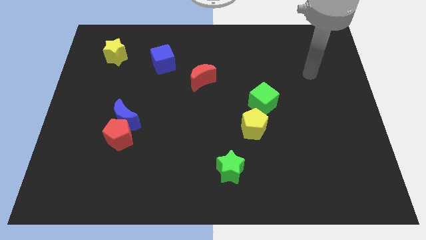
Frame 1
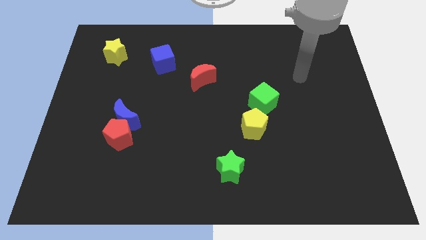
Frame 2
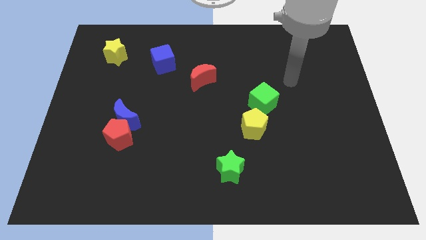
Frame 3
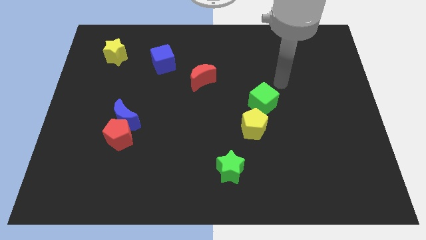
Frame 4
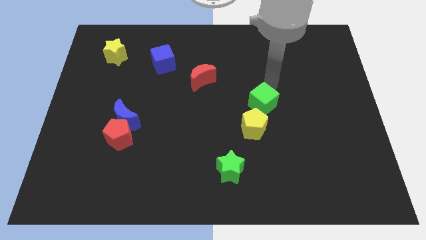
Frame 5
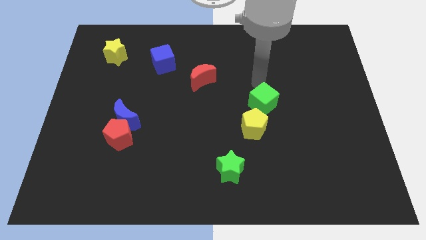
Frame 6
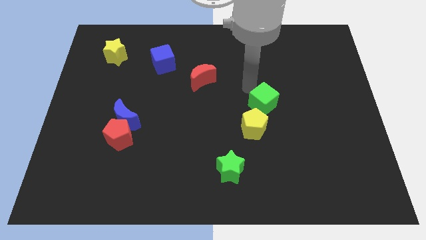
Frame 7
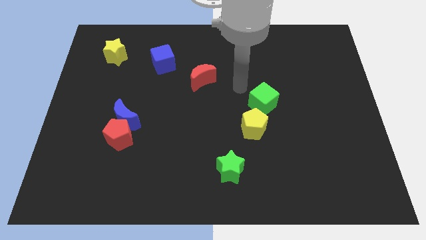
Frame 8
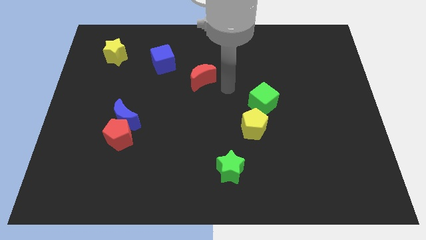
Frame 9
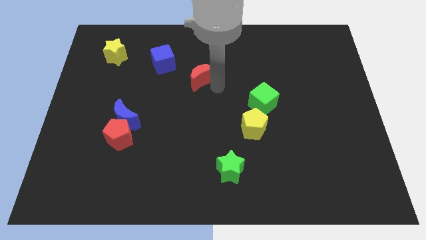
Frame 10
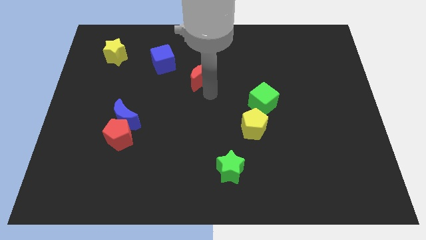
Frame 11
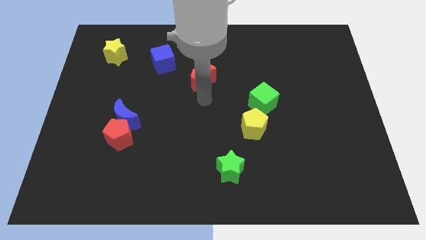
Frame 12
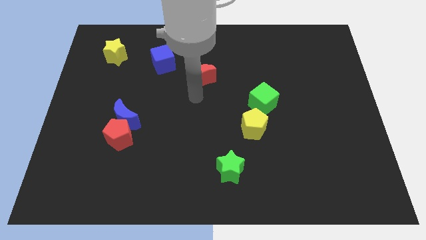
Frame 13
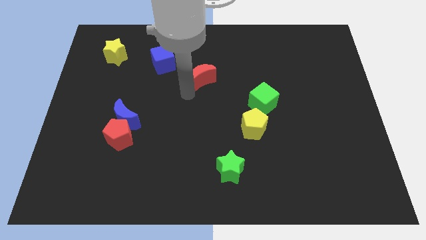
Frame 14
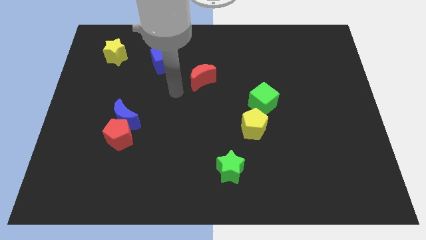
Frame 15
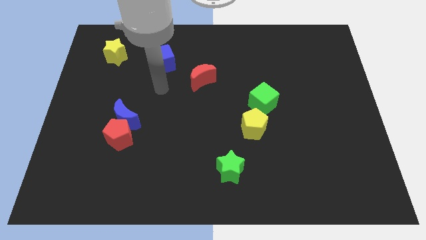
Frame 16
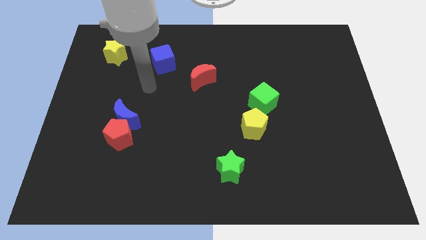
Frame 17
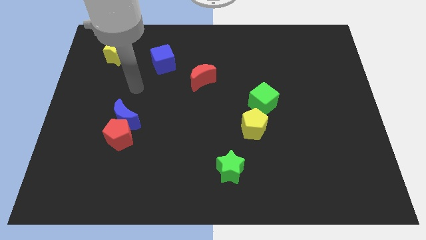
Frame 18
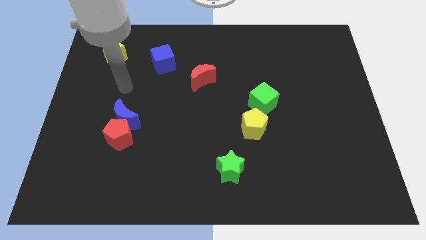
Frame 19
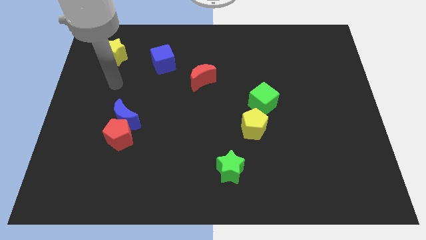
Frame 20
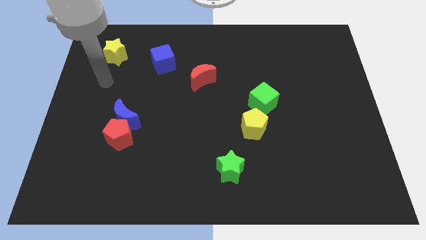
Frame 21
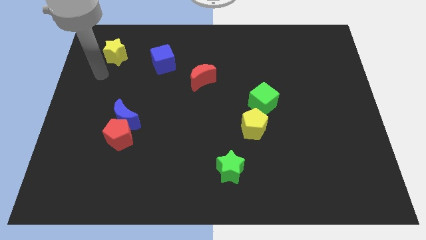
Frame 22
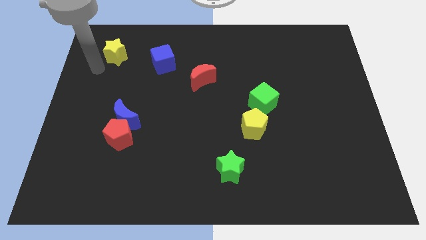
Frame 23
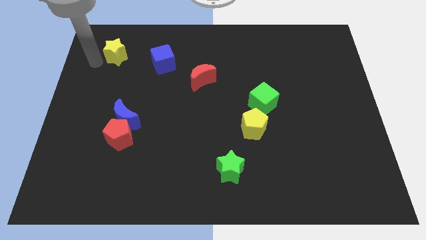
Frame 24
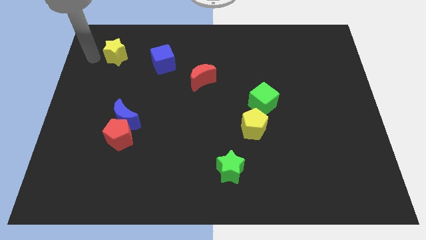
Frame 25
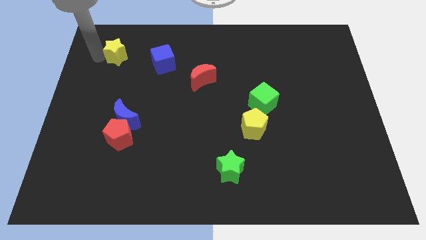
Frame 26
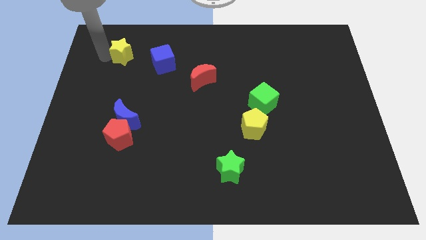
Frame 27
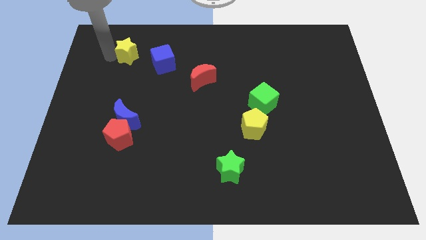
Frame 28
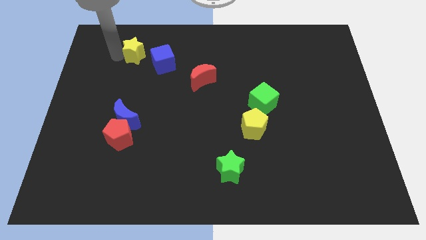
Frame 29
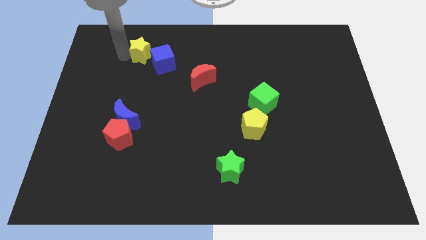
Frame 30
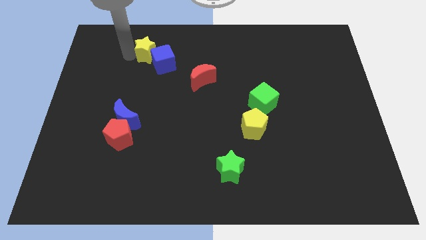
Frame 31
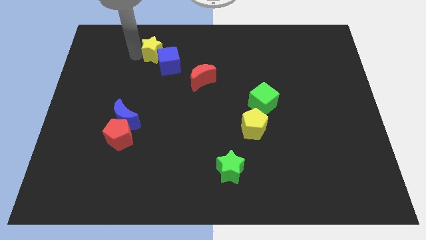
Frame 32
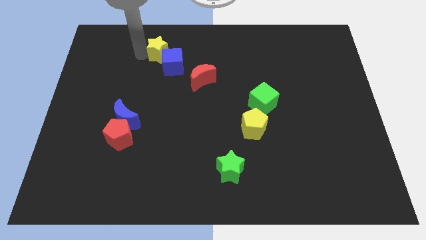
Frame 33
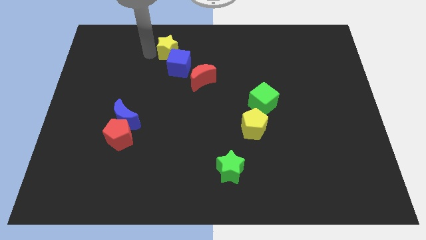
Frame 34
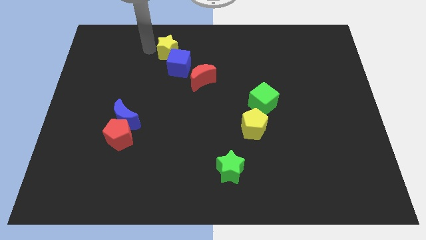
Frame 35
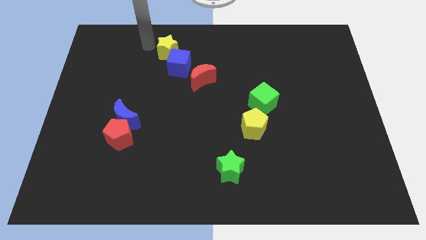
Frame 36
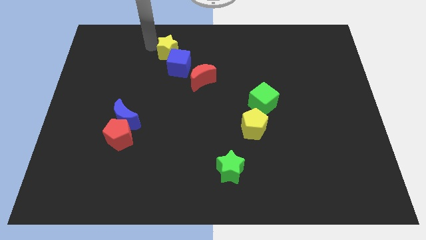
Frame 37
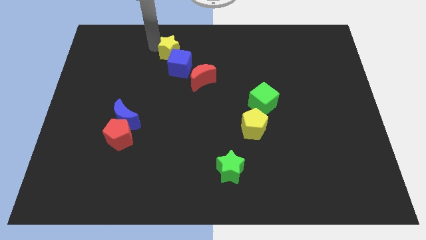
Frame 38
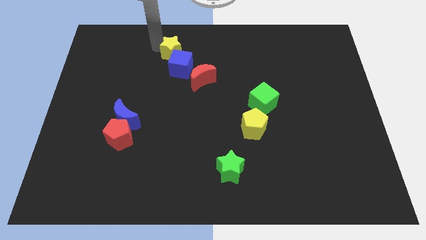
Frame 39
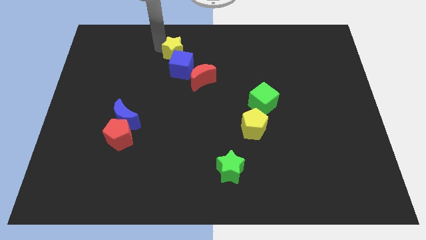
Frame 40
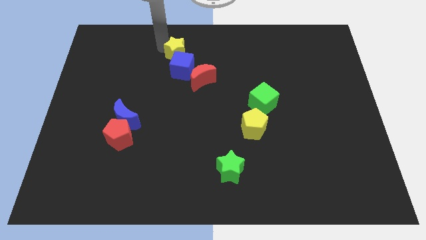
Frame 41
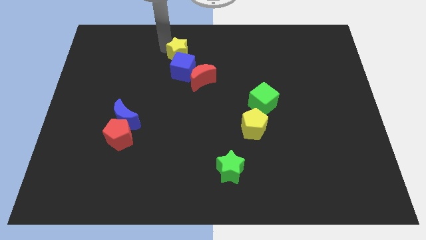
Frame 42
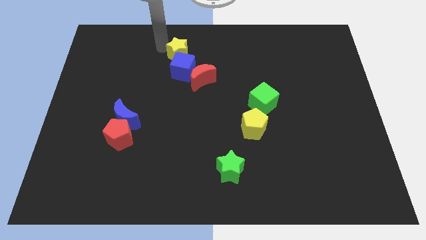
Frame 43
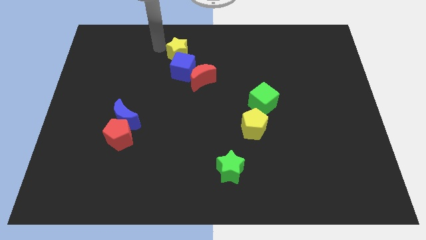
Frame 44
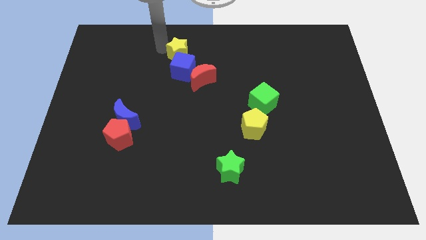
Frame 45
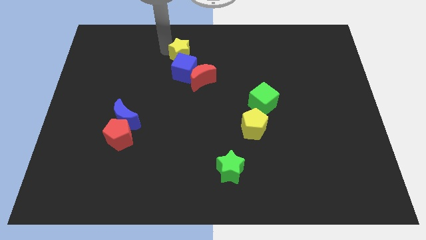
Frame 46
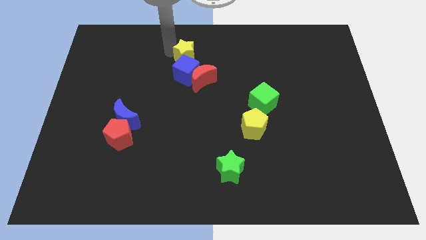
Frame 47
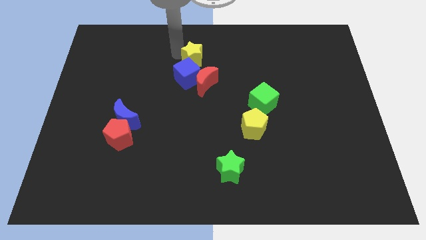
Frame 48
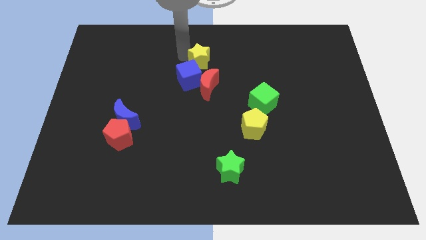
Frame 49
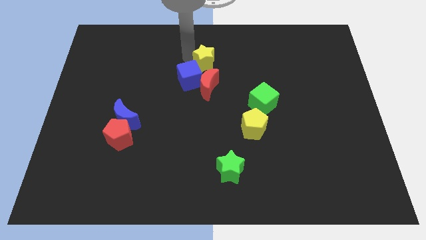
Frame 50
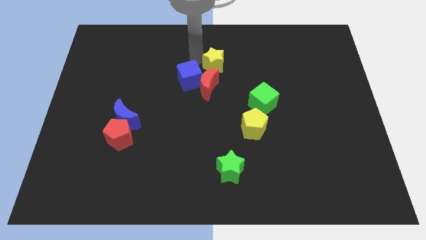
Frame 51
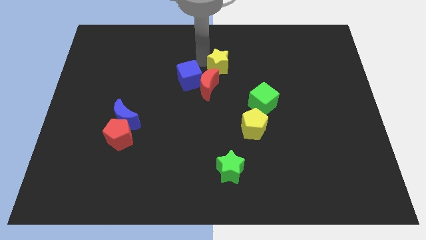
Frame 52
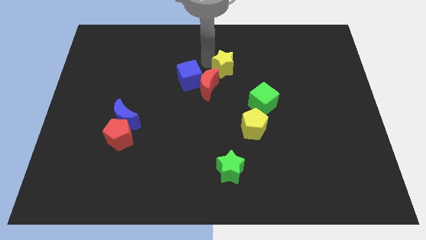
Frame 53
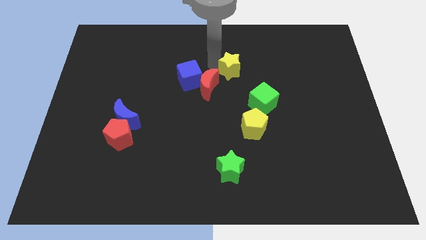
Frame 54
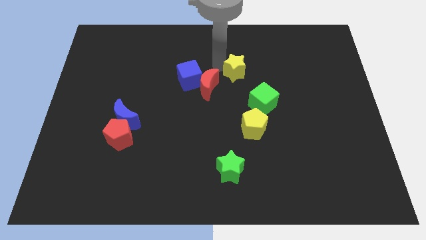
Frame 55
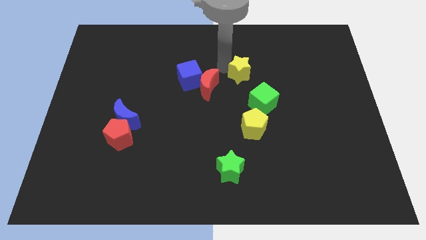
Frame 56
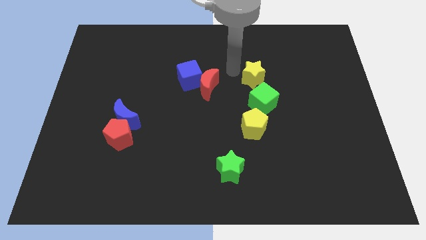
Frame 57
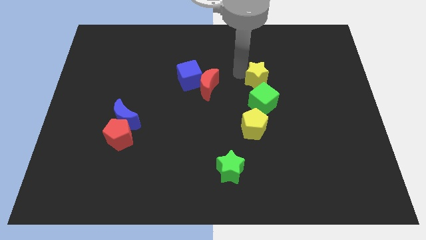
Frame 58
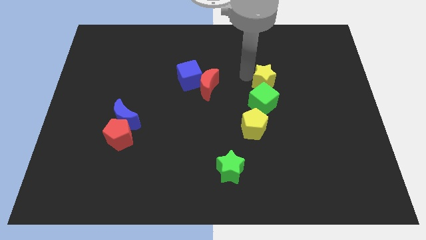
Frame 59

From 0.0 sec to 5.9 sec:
put the yellow star diagonally up and to the right of the green cube

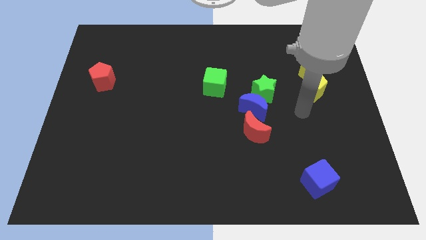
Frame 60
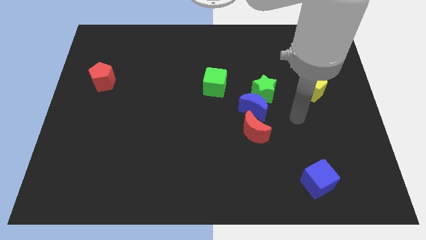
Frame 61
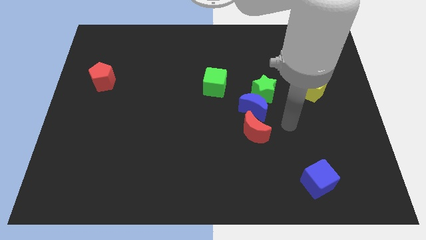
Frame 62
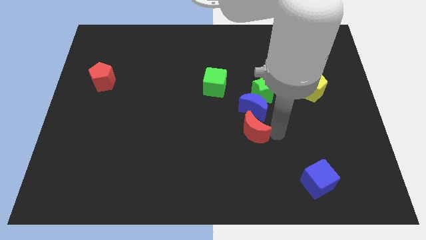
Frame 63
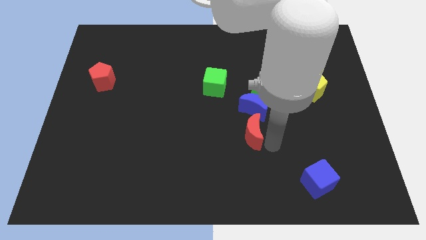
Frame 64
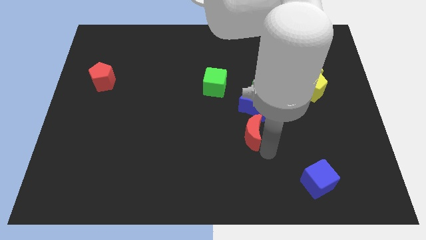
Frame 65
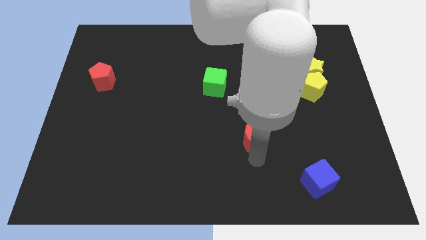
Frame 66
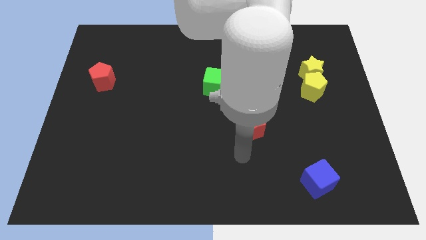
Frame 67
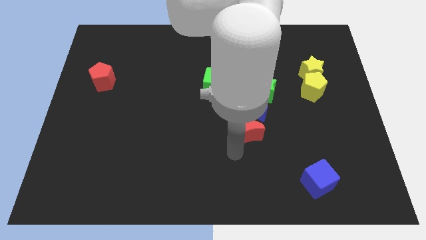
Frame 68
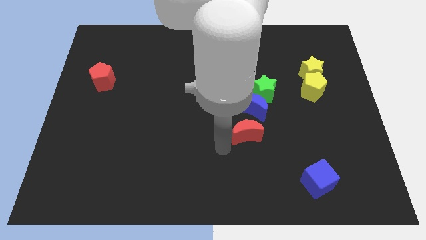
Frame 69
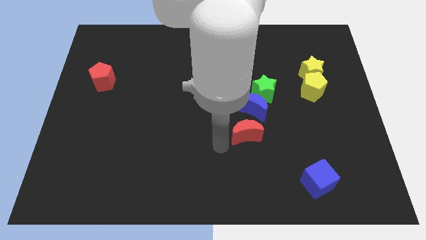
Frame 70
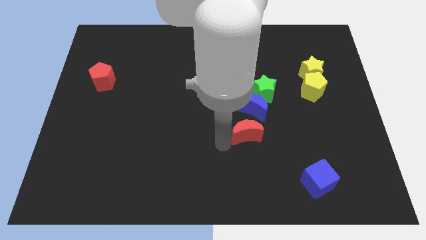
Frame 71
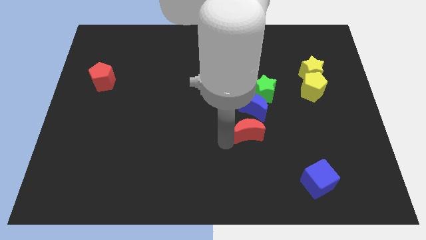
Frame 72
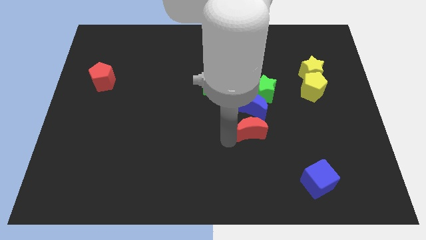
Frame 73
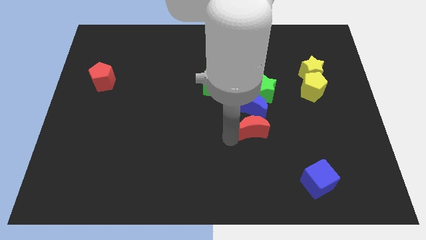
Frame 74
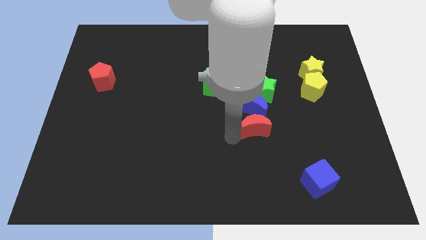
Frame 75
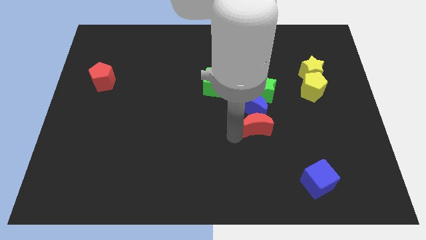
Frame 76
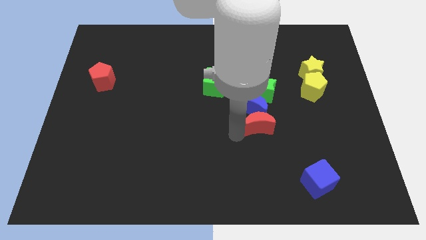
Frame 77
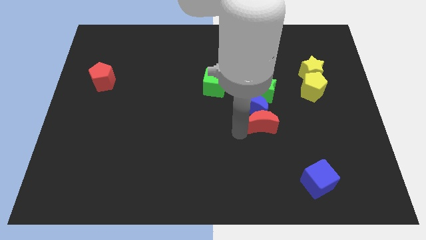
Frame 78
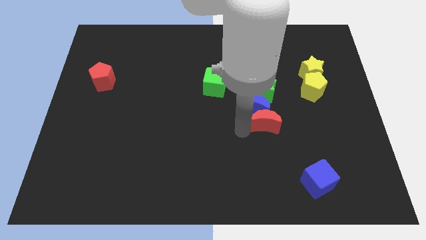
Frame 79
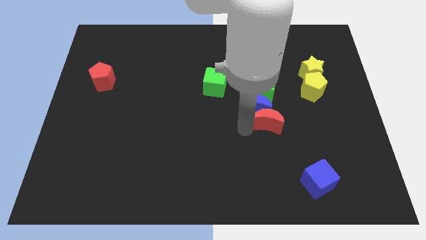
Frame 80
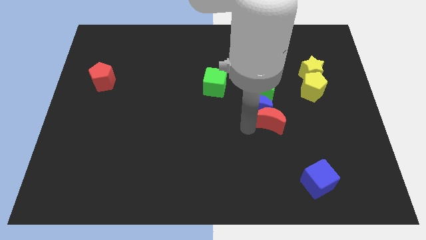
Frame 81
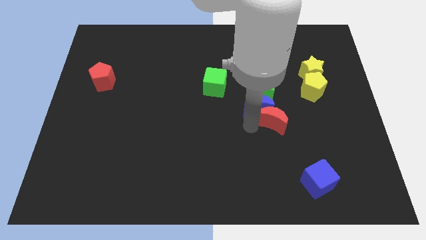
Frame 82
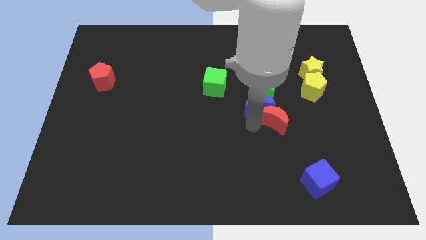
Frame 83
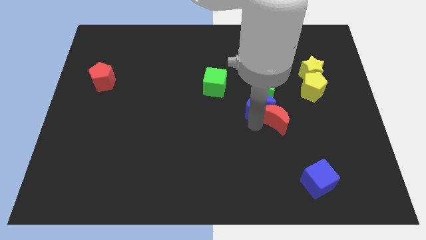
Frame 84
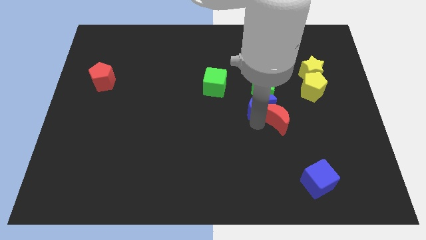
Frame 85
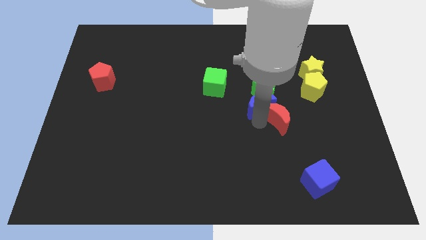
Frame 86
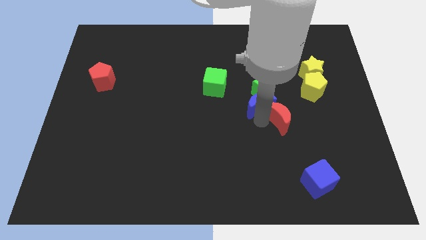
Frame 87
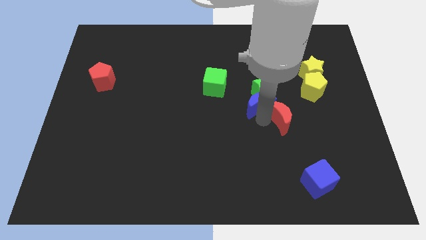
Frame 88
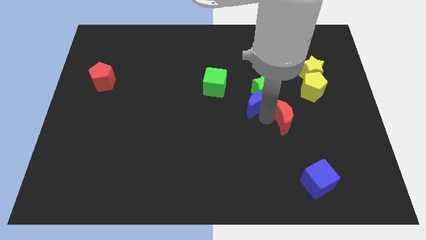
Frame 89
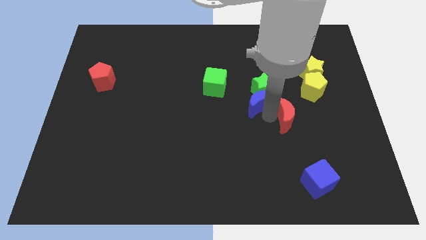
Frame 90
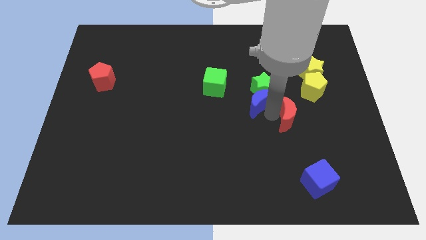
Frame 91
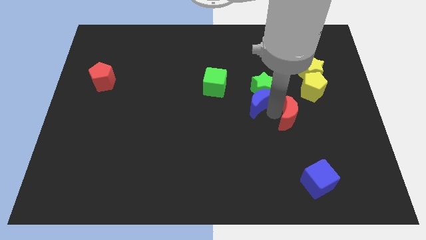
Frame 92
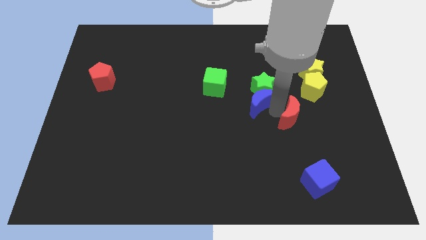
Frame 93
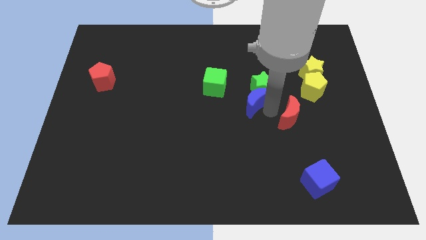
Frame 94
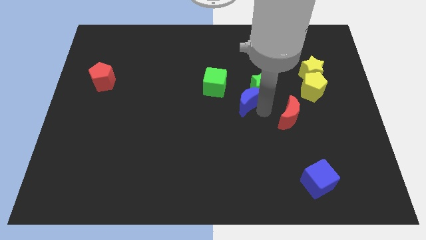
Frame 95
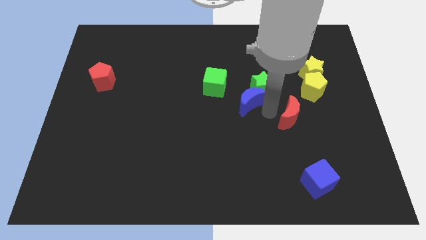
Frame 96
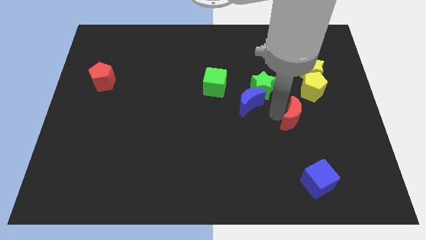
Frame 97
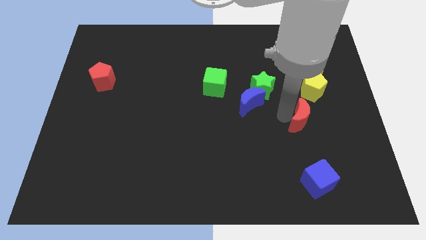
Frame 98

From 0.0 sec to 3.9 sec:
slide the red moon below the yellow pentagon
